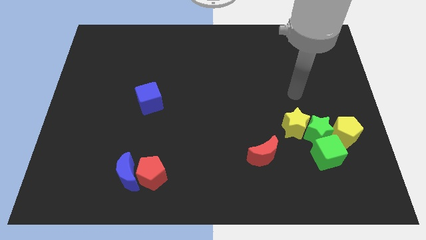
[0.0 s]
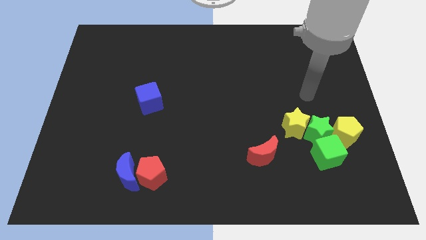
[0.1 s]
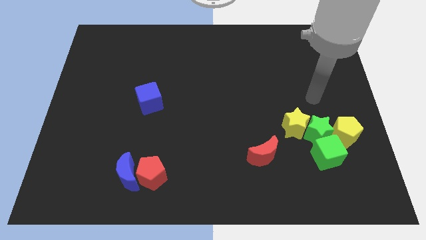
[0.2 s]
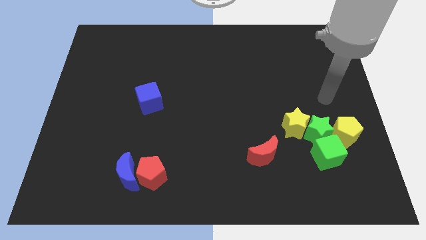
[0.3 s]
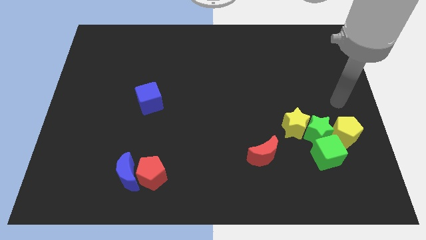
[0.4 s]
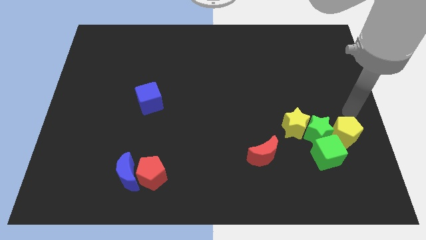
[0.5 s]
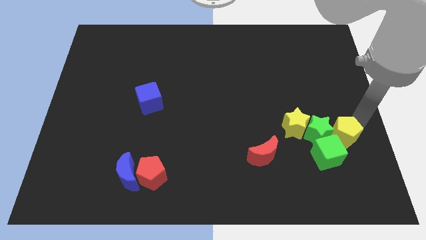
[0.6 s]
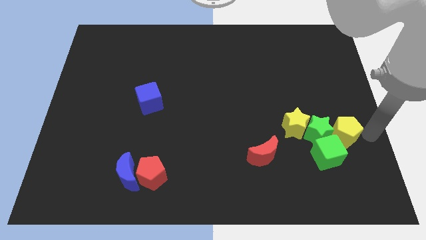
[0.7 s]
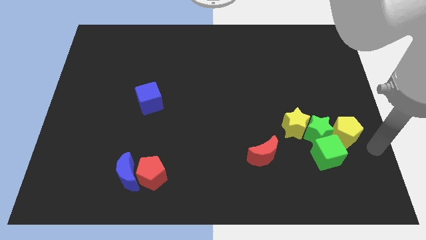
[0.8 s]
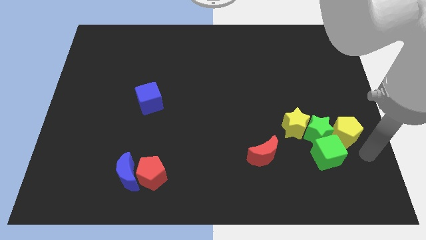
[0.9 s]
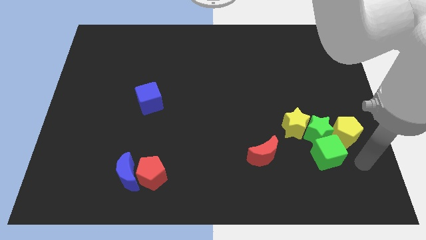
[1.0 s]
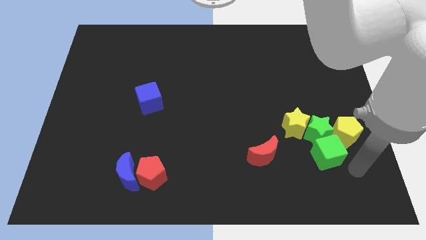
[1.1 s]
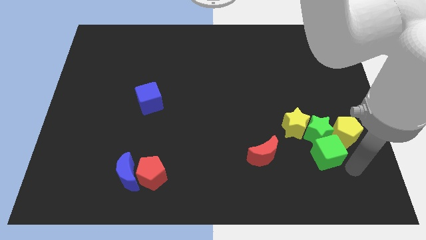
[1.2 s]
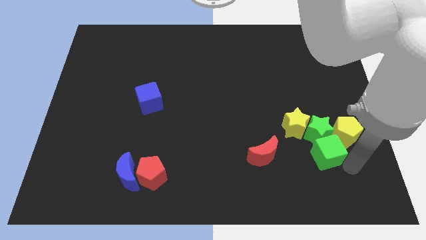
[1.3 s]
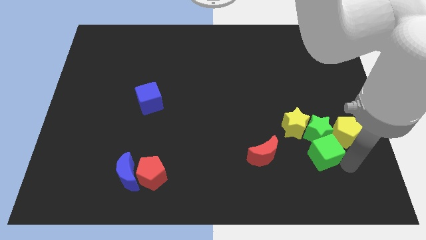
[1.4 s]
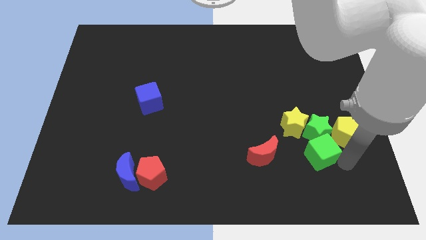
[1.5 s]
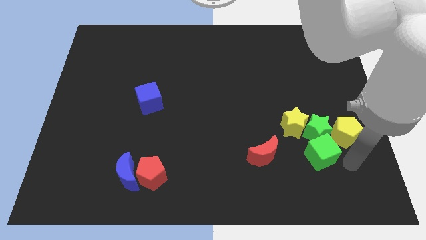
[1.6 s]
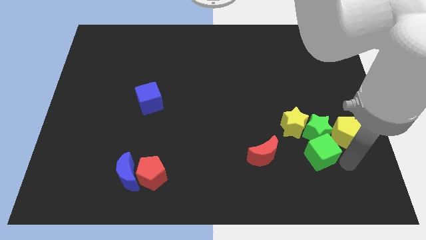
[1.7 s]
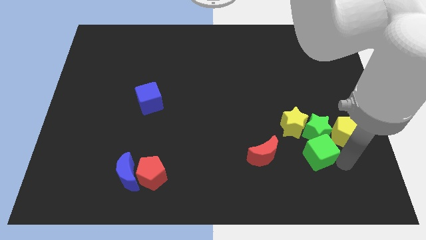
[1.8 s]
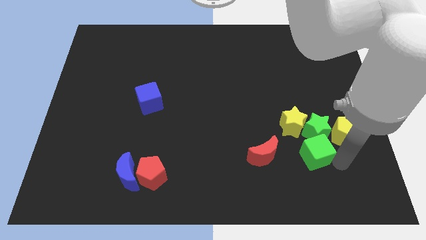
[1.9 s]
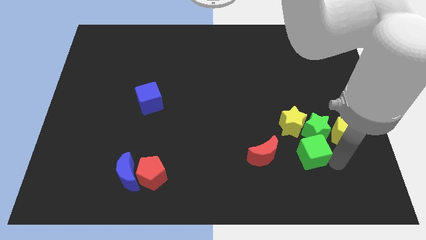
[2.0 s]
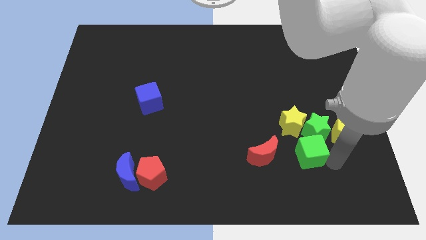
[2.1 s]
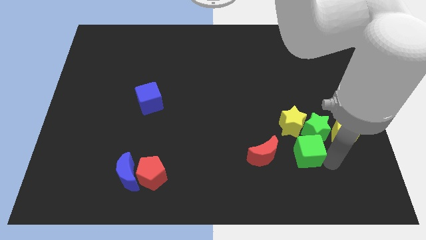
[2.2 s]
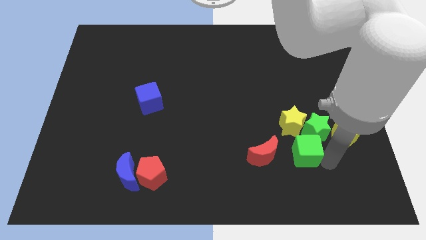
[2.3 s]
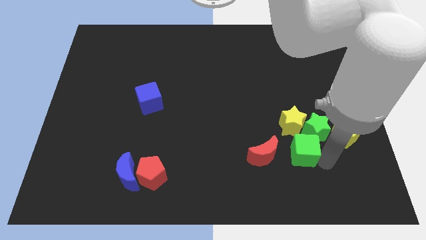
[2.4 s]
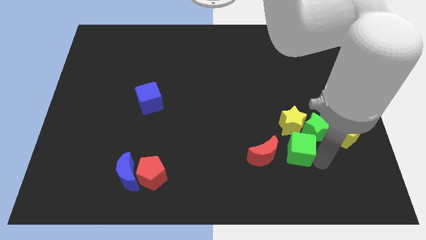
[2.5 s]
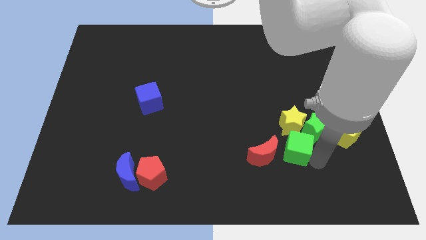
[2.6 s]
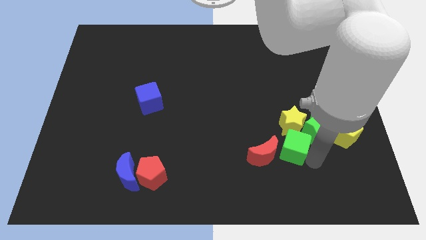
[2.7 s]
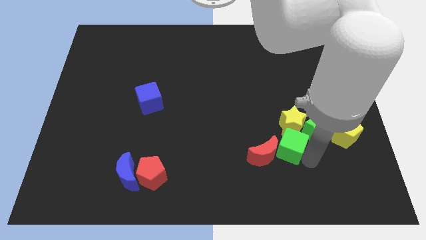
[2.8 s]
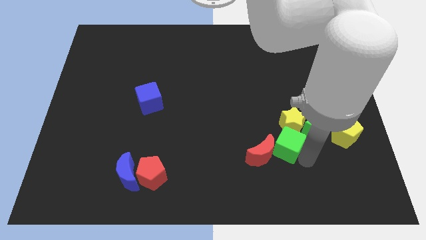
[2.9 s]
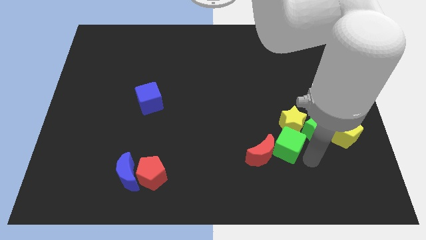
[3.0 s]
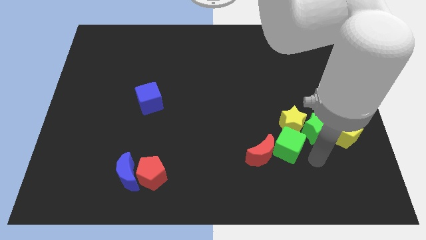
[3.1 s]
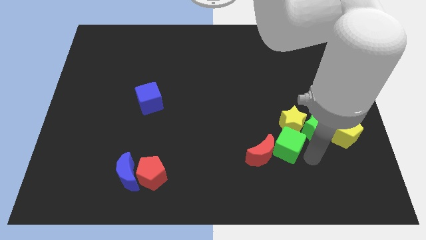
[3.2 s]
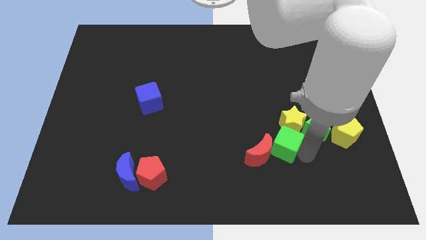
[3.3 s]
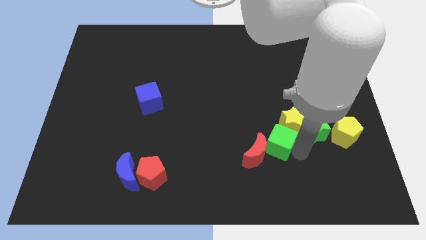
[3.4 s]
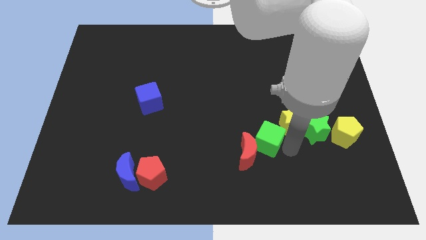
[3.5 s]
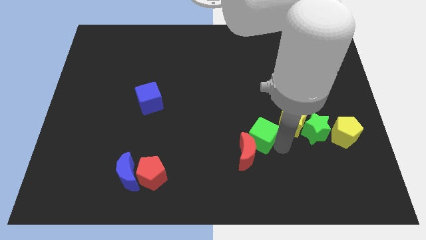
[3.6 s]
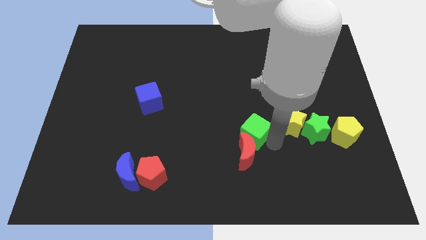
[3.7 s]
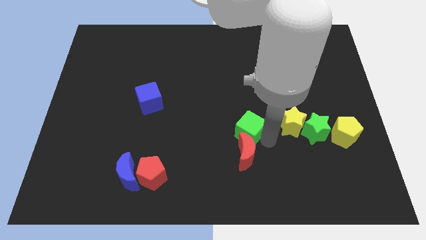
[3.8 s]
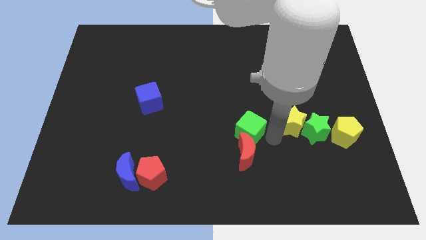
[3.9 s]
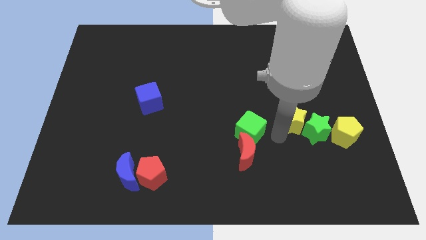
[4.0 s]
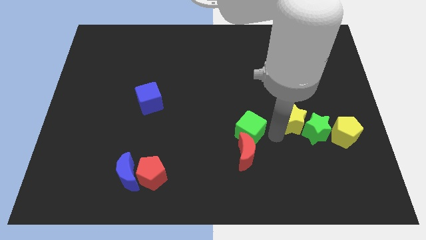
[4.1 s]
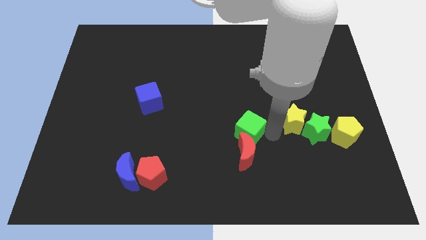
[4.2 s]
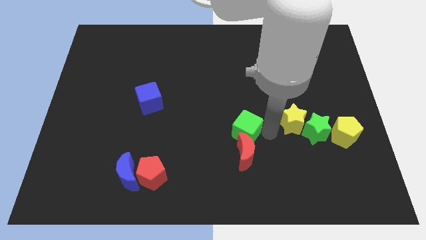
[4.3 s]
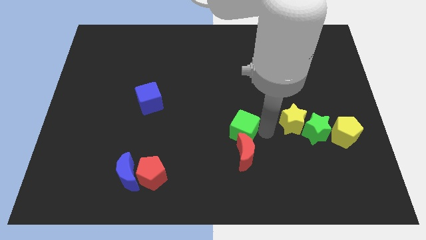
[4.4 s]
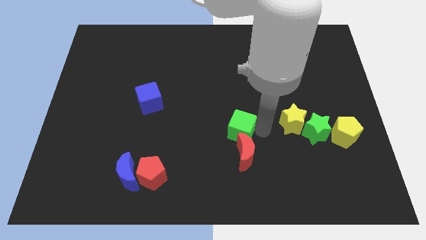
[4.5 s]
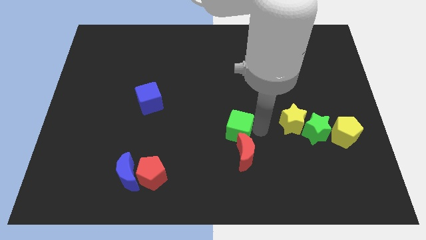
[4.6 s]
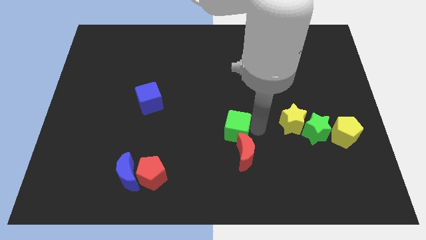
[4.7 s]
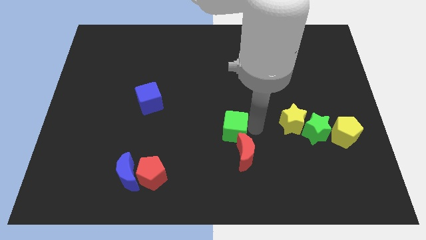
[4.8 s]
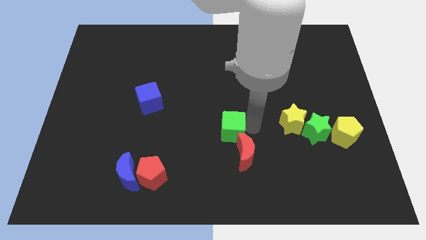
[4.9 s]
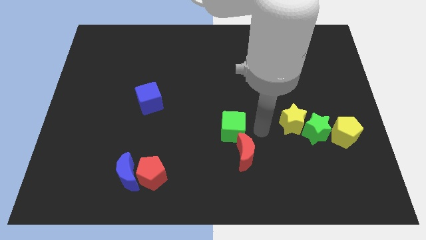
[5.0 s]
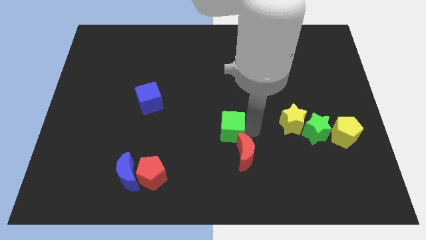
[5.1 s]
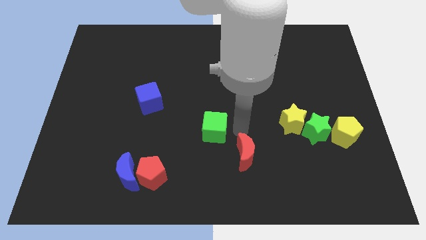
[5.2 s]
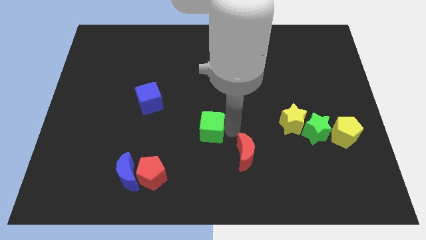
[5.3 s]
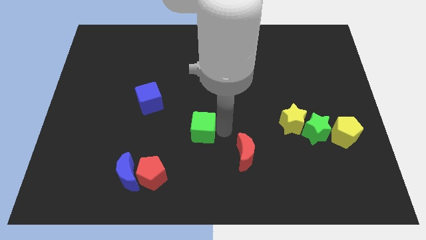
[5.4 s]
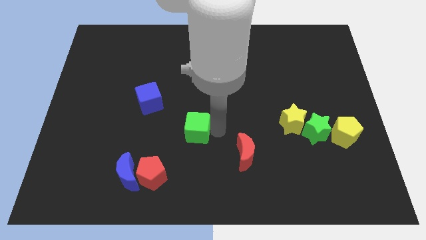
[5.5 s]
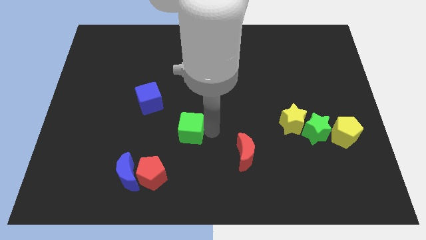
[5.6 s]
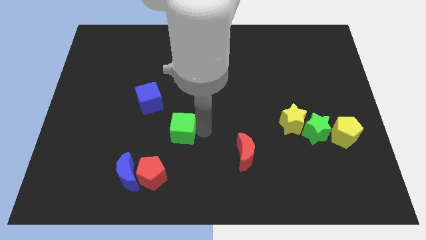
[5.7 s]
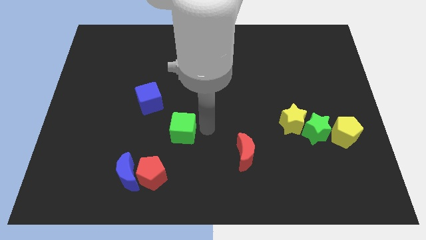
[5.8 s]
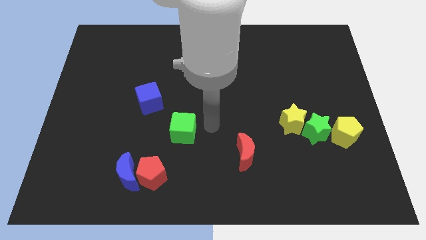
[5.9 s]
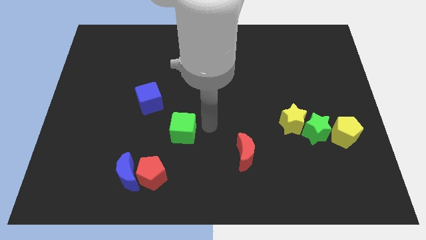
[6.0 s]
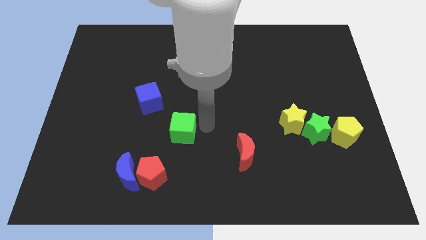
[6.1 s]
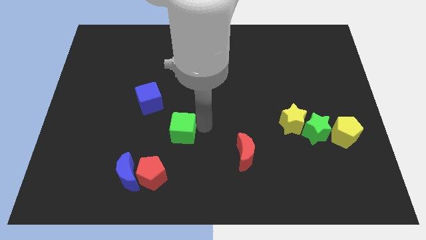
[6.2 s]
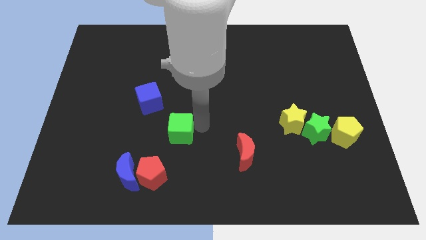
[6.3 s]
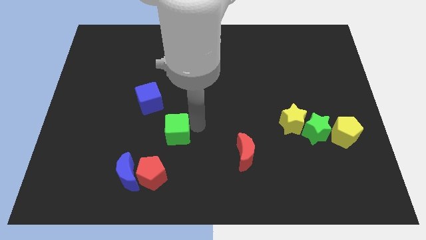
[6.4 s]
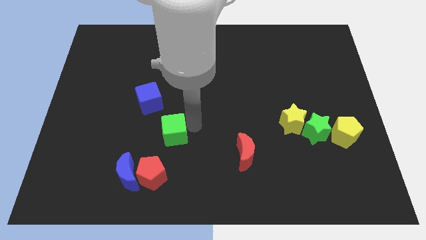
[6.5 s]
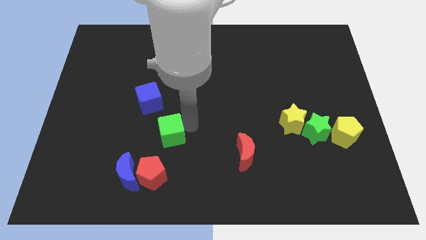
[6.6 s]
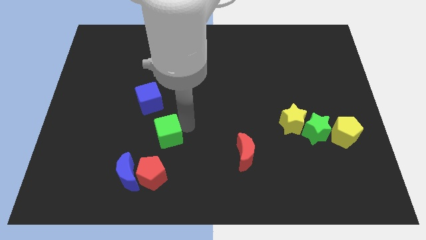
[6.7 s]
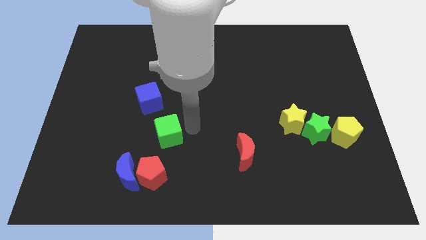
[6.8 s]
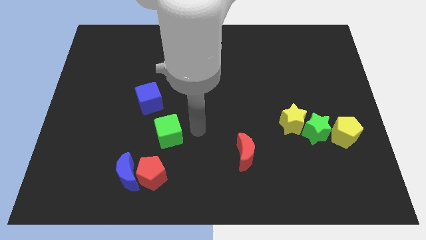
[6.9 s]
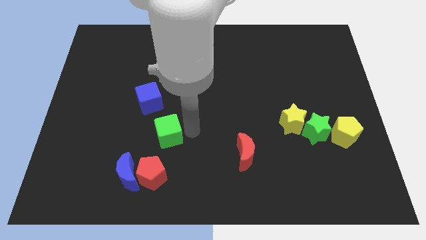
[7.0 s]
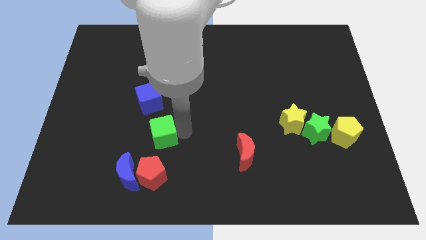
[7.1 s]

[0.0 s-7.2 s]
put the green cube to the bottom side of the blue cube
